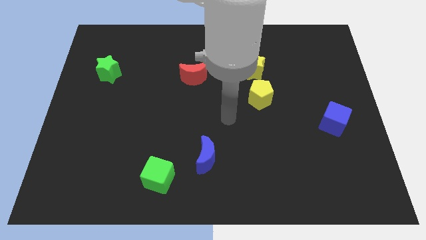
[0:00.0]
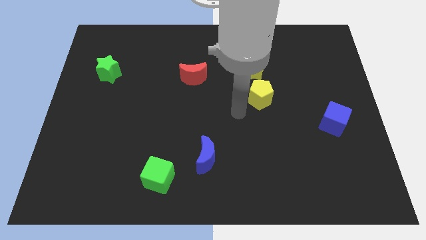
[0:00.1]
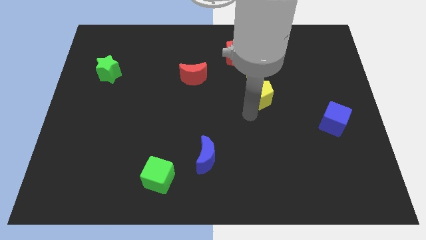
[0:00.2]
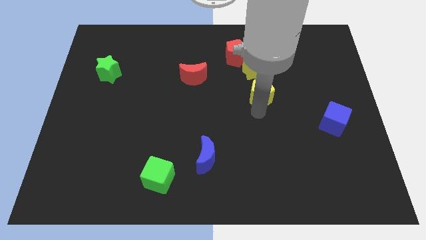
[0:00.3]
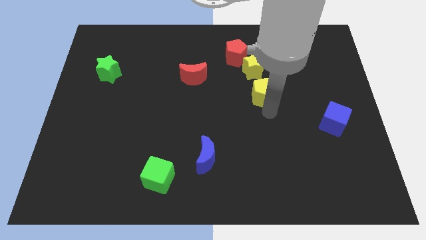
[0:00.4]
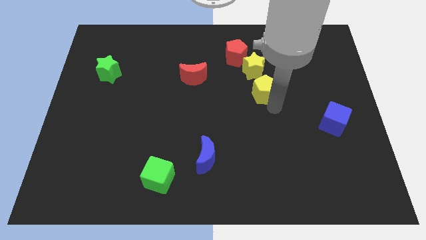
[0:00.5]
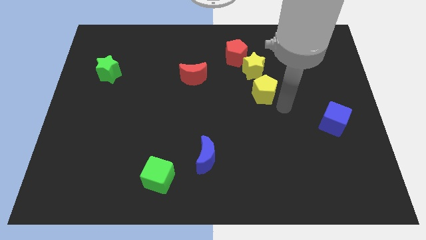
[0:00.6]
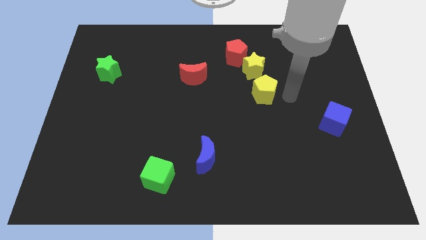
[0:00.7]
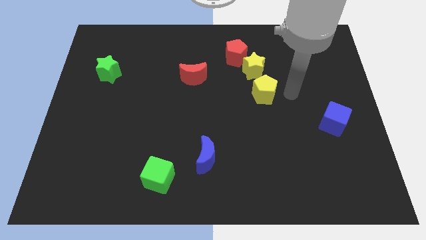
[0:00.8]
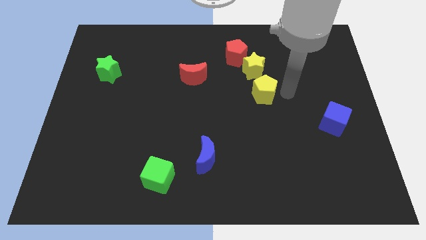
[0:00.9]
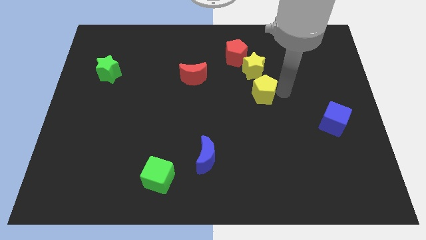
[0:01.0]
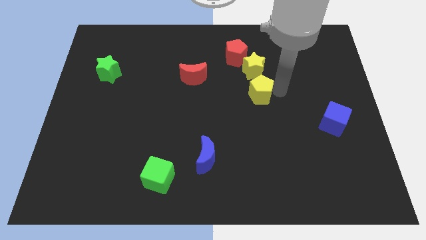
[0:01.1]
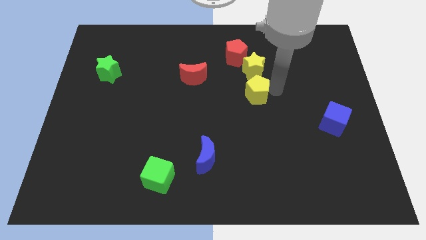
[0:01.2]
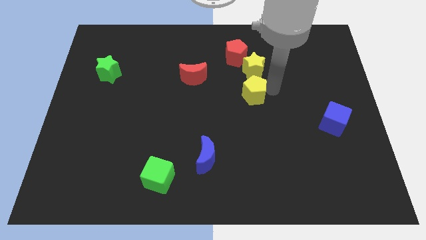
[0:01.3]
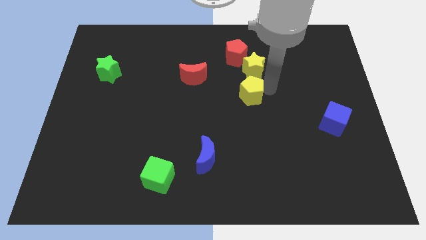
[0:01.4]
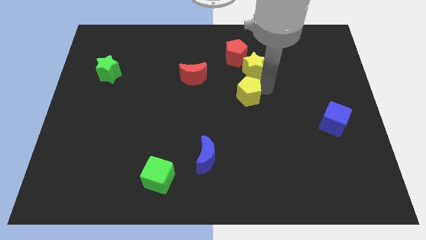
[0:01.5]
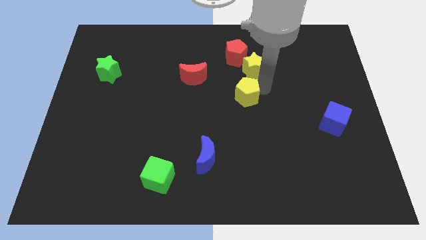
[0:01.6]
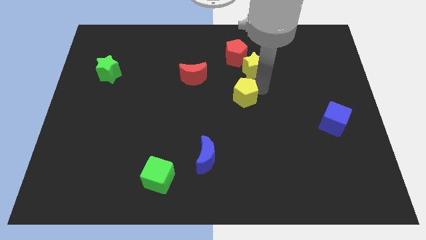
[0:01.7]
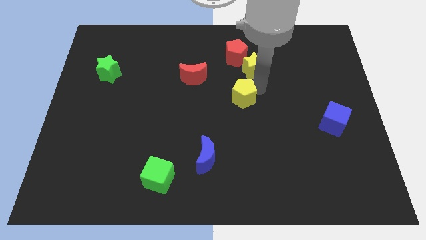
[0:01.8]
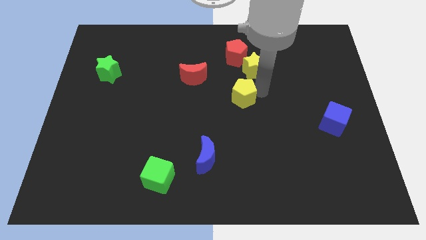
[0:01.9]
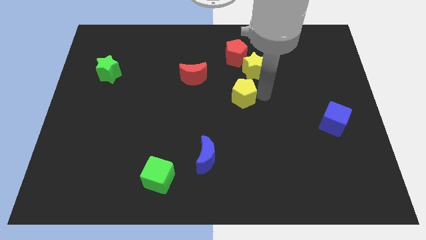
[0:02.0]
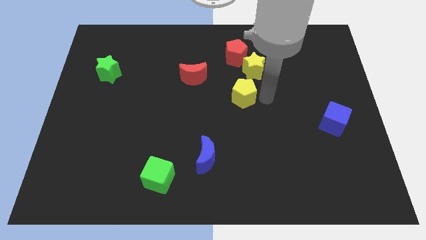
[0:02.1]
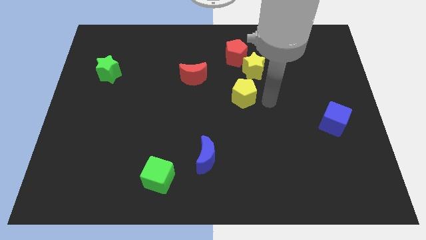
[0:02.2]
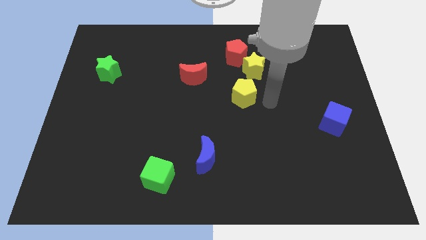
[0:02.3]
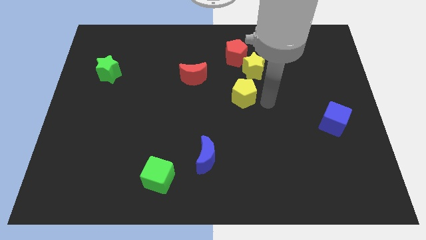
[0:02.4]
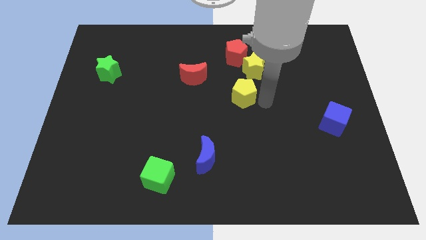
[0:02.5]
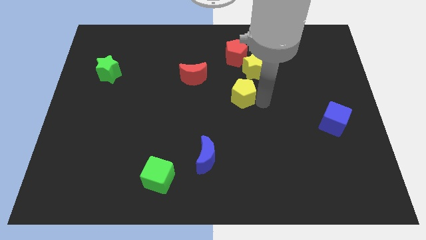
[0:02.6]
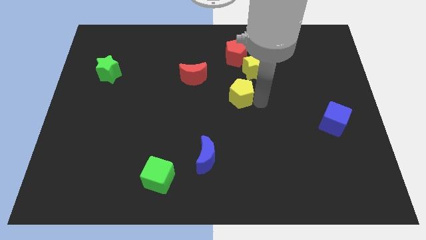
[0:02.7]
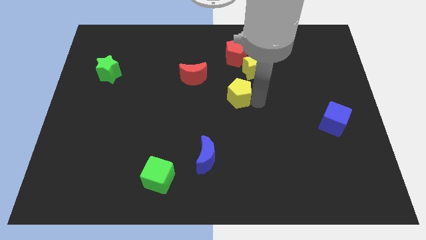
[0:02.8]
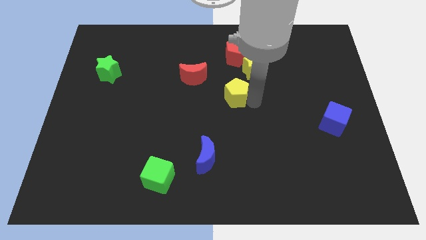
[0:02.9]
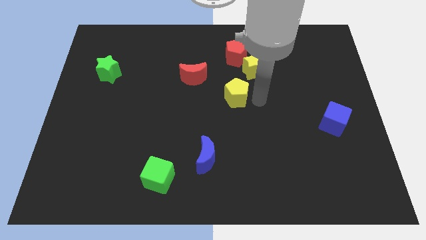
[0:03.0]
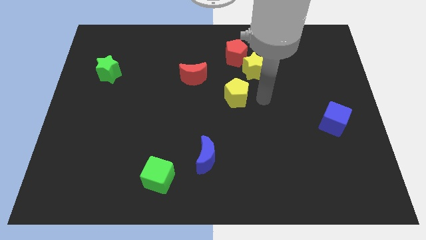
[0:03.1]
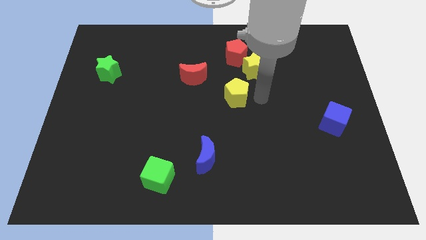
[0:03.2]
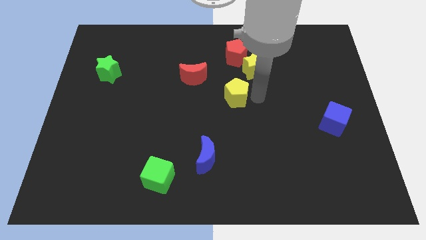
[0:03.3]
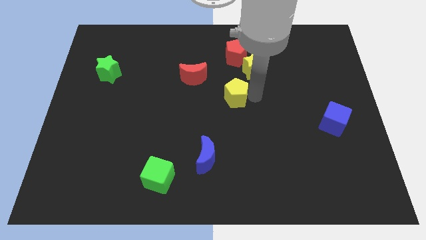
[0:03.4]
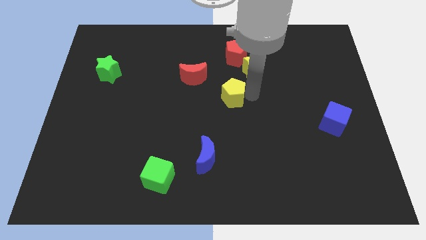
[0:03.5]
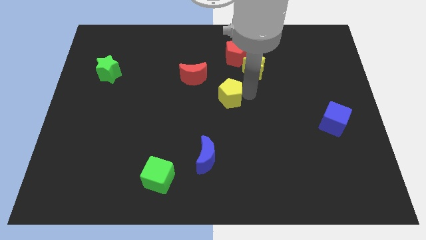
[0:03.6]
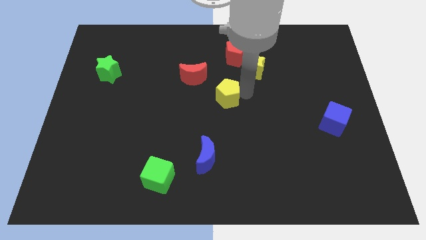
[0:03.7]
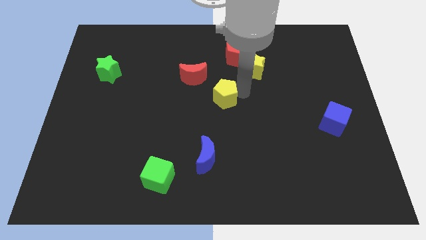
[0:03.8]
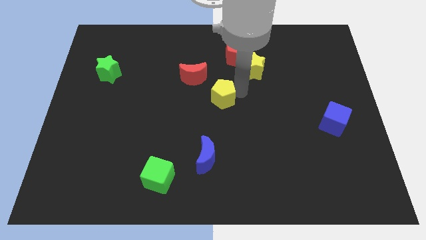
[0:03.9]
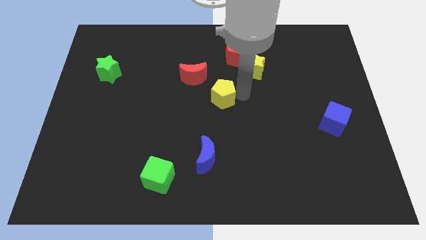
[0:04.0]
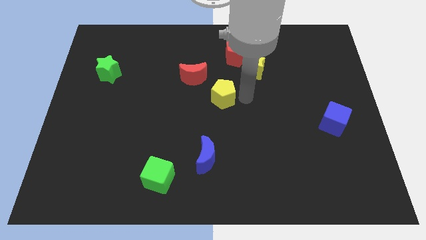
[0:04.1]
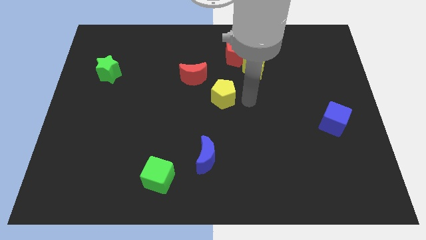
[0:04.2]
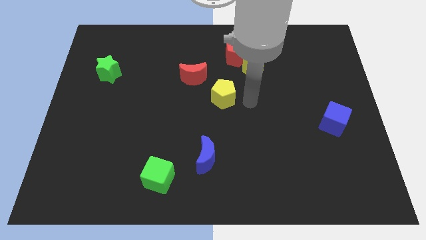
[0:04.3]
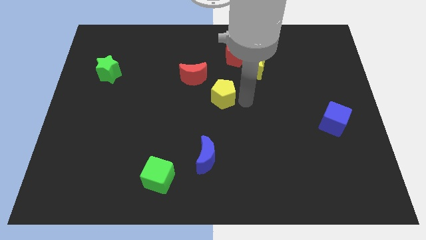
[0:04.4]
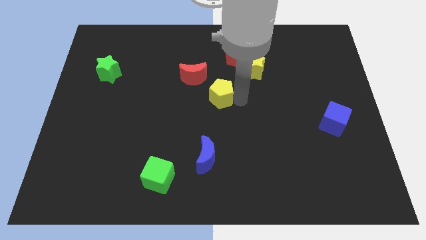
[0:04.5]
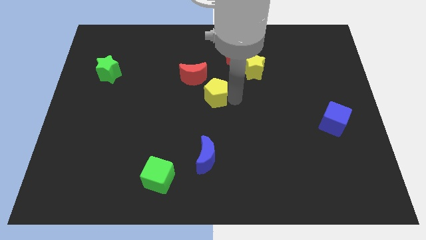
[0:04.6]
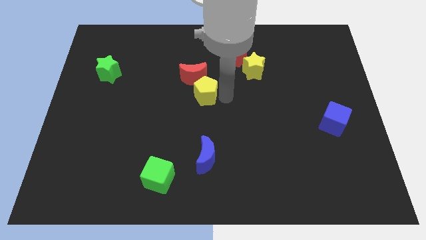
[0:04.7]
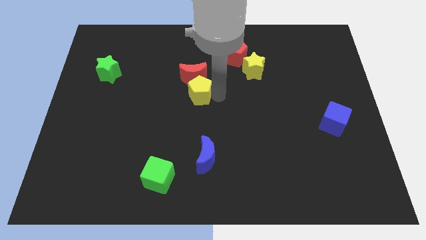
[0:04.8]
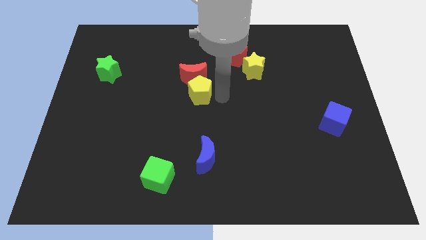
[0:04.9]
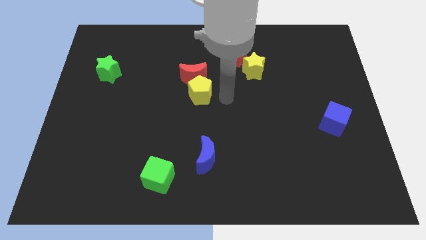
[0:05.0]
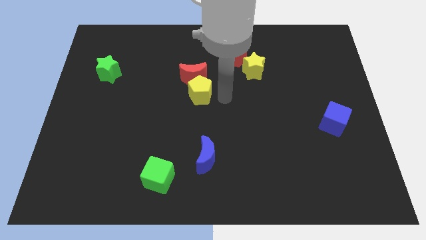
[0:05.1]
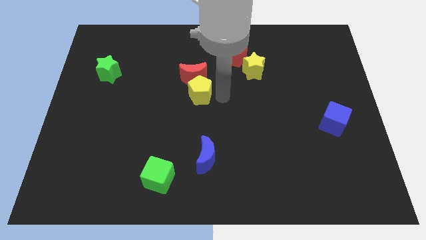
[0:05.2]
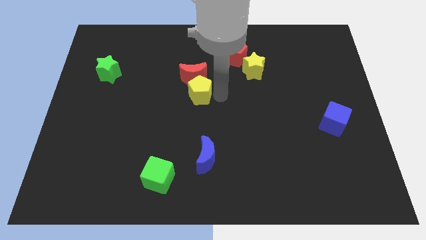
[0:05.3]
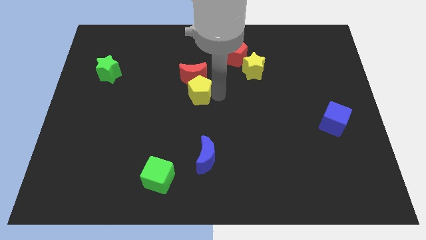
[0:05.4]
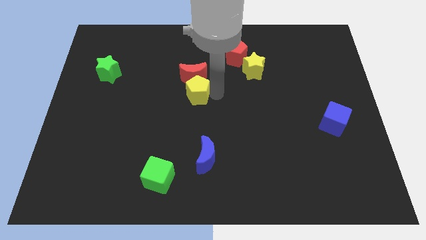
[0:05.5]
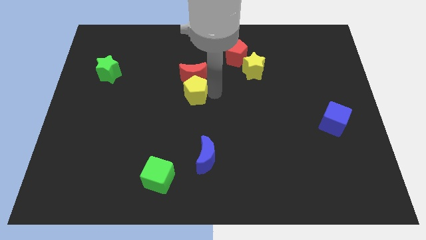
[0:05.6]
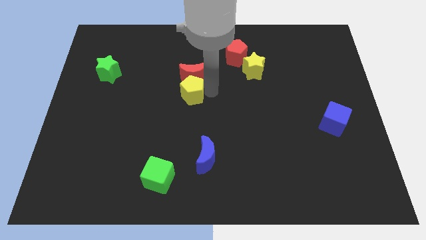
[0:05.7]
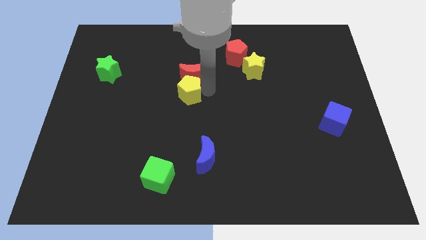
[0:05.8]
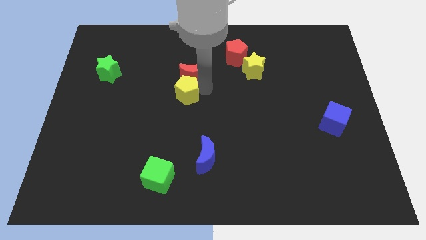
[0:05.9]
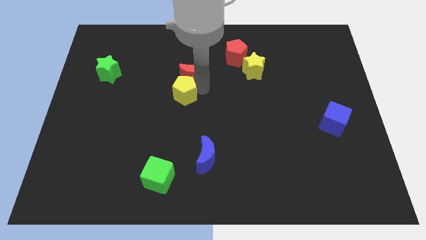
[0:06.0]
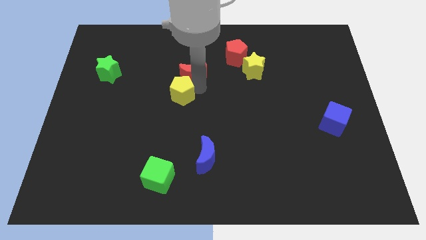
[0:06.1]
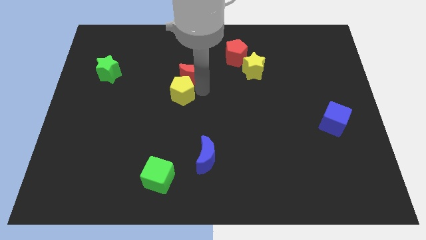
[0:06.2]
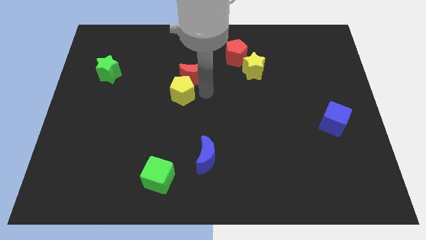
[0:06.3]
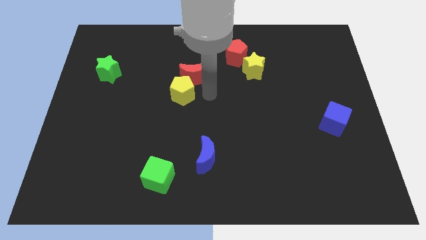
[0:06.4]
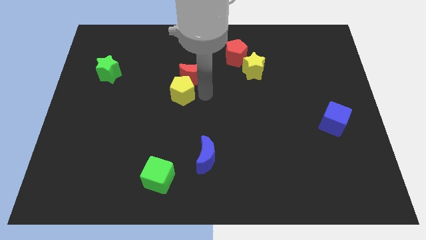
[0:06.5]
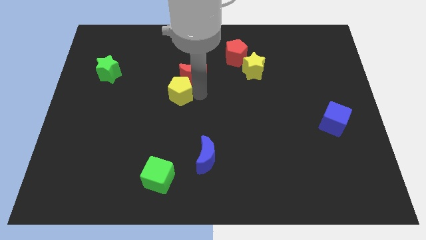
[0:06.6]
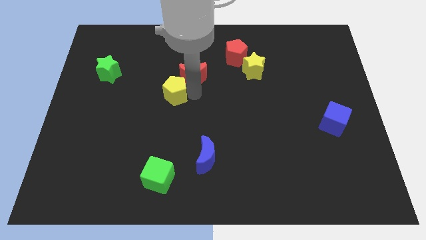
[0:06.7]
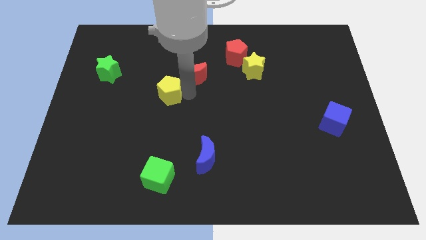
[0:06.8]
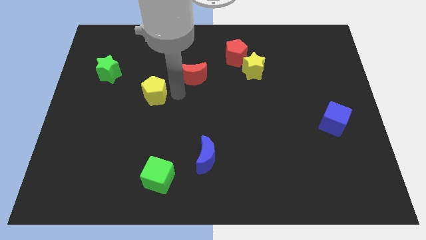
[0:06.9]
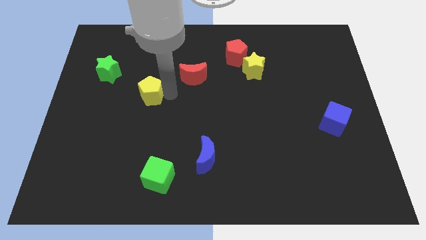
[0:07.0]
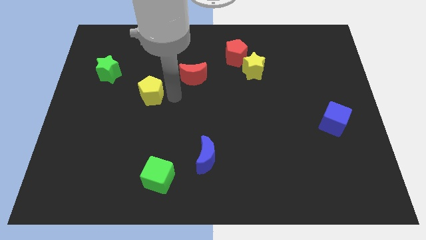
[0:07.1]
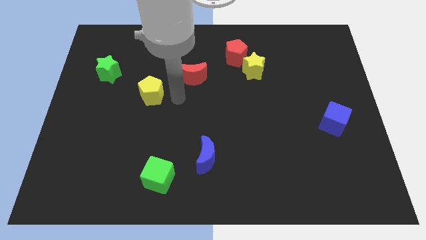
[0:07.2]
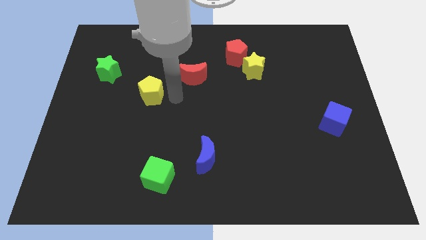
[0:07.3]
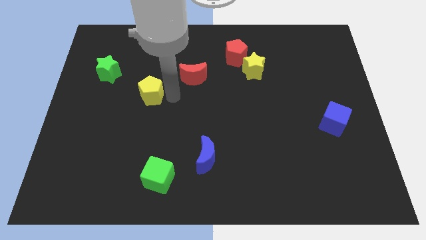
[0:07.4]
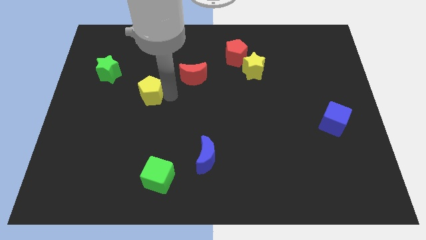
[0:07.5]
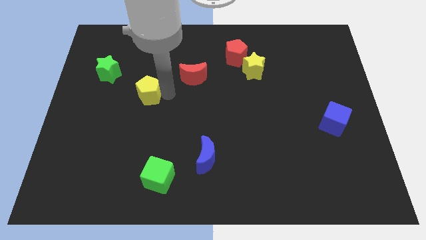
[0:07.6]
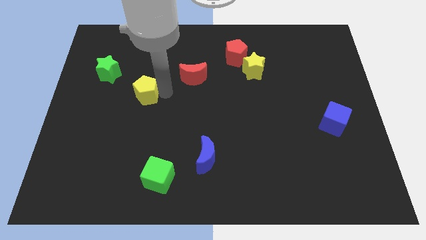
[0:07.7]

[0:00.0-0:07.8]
slide the yellow pentagon to the bottom right side of the green star
